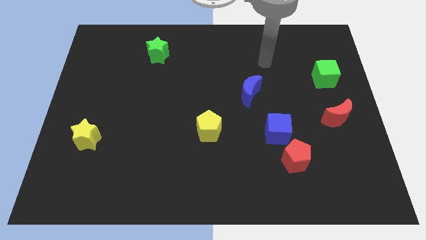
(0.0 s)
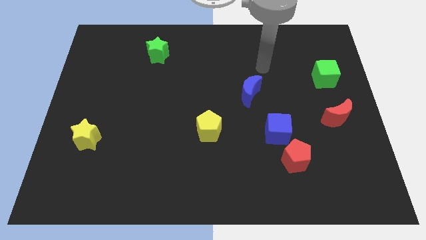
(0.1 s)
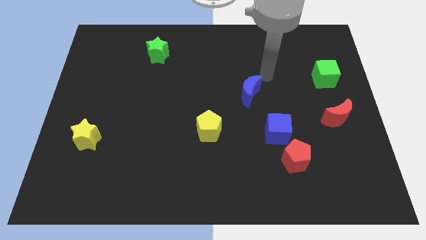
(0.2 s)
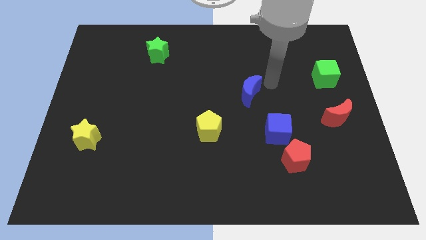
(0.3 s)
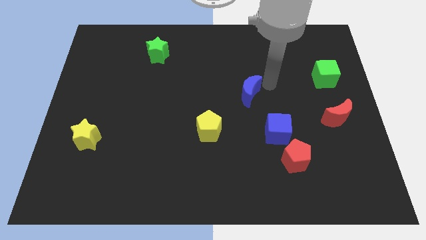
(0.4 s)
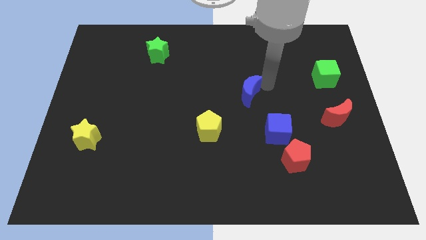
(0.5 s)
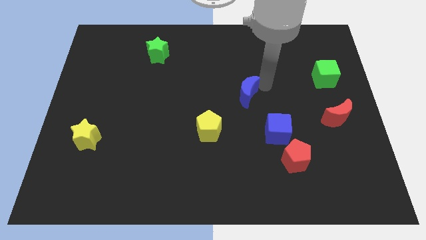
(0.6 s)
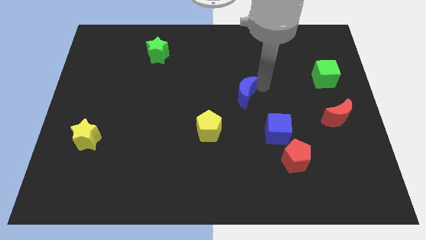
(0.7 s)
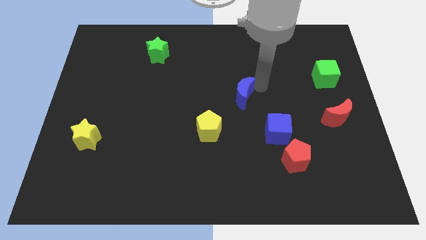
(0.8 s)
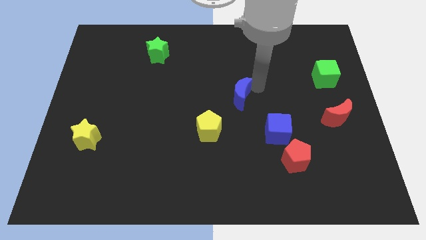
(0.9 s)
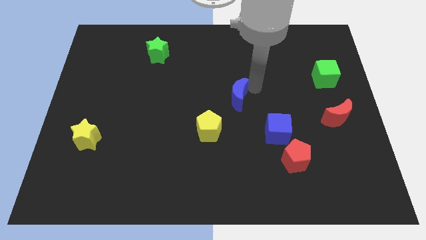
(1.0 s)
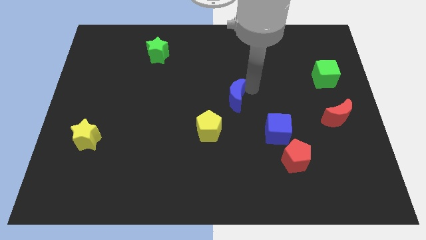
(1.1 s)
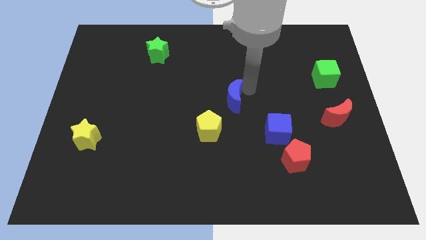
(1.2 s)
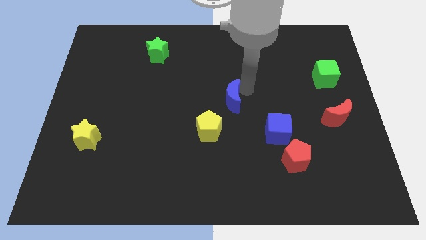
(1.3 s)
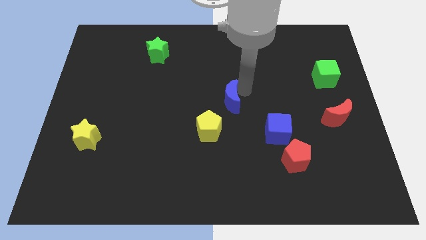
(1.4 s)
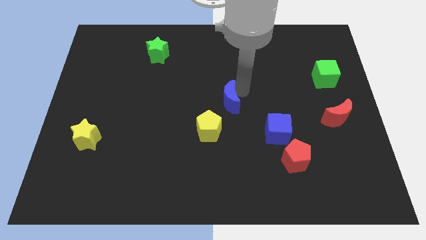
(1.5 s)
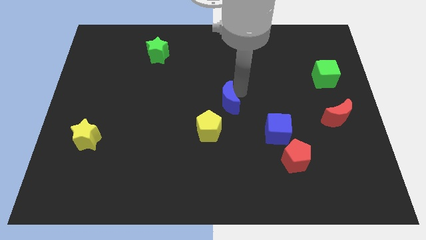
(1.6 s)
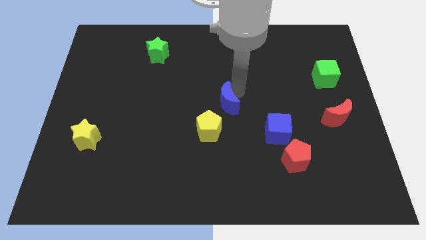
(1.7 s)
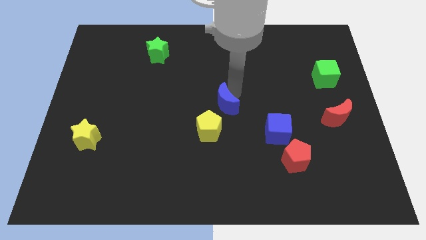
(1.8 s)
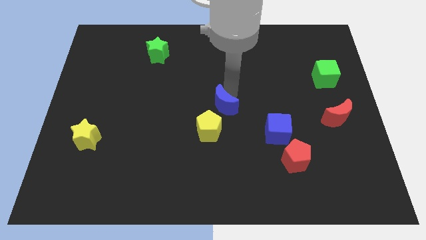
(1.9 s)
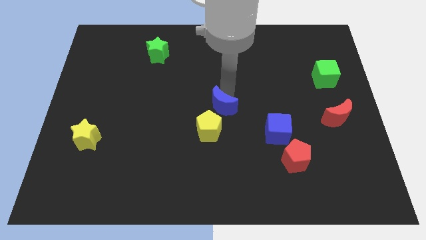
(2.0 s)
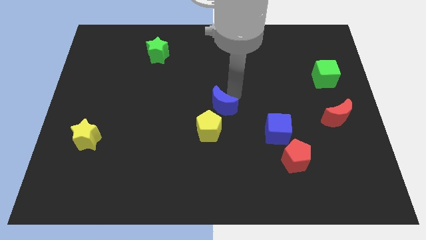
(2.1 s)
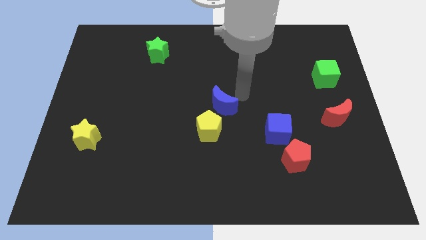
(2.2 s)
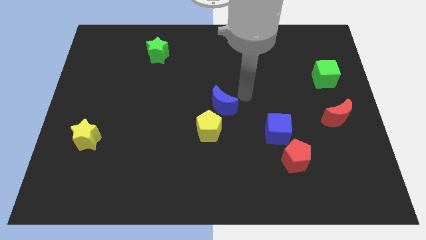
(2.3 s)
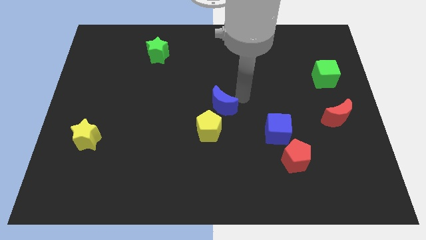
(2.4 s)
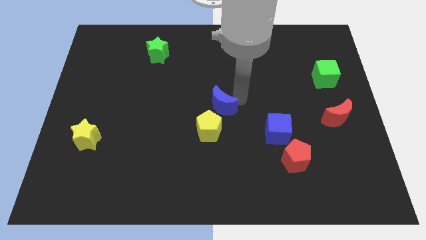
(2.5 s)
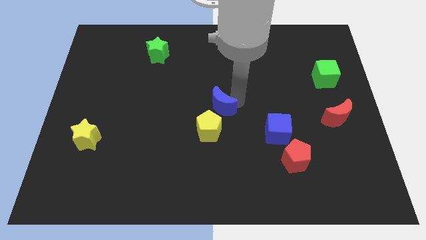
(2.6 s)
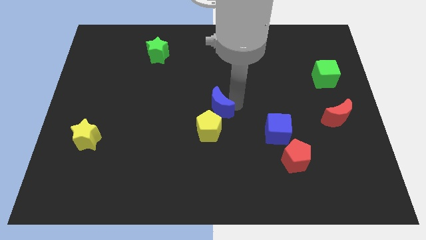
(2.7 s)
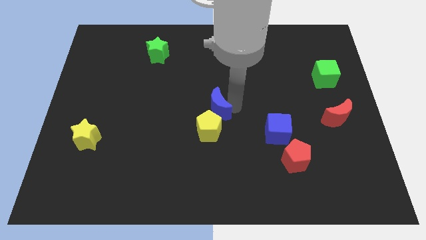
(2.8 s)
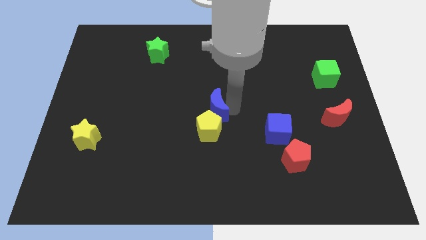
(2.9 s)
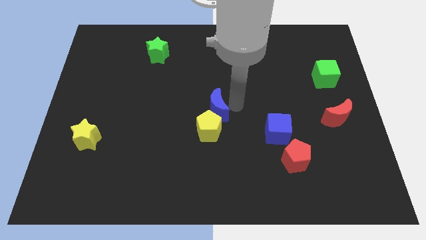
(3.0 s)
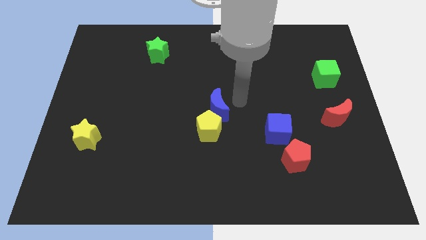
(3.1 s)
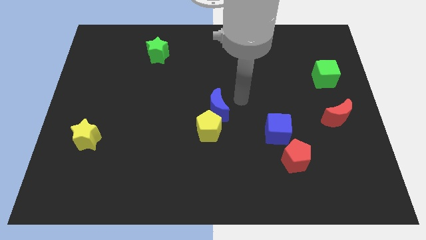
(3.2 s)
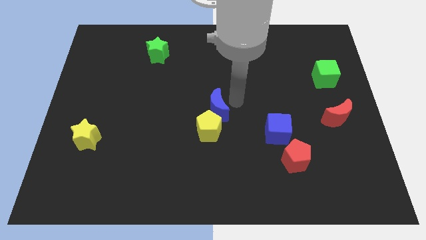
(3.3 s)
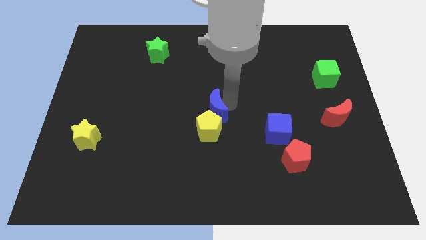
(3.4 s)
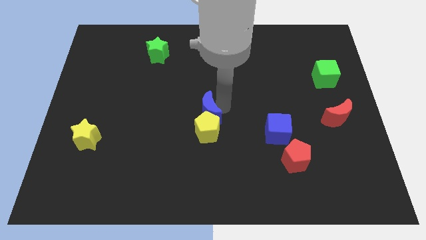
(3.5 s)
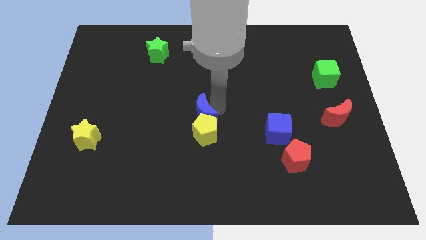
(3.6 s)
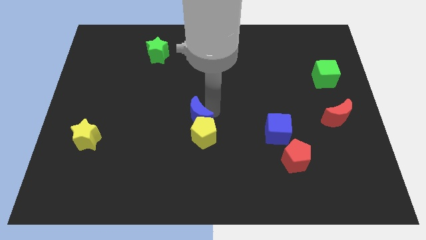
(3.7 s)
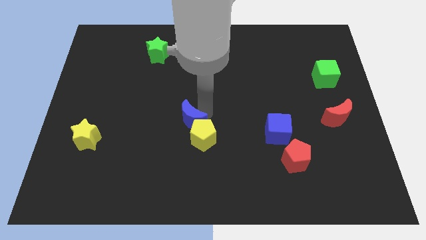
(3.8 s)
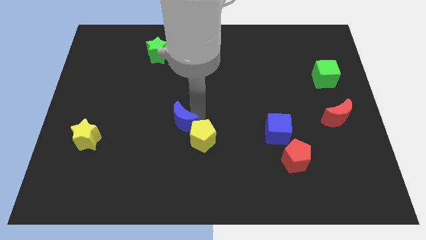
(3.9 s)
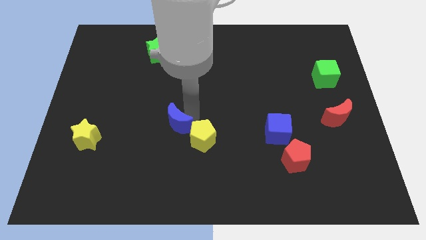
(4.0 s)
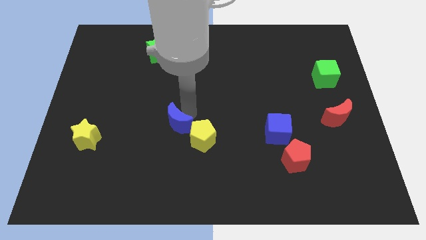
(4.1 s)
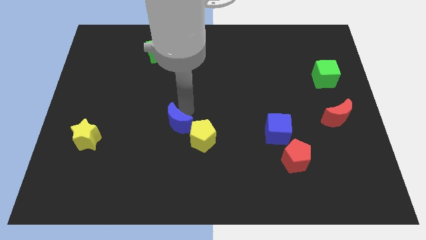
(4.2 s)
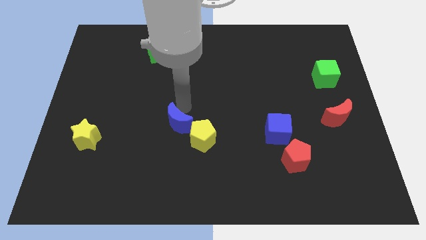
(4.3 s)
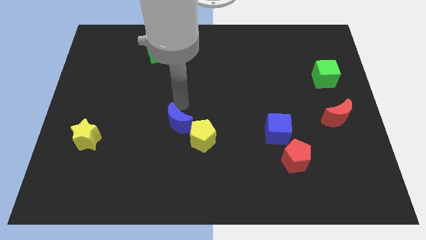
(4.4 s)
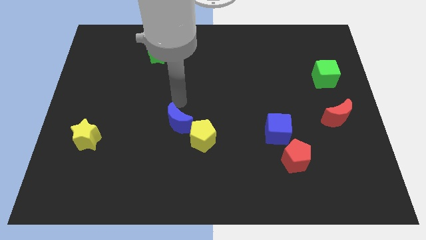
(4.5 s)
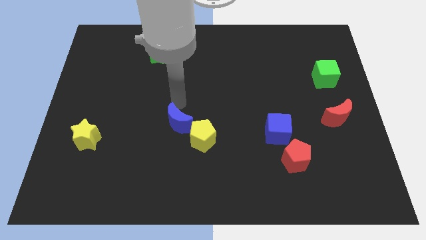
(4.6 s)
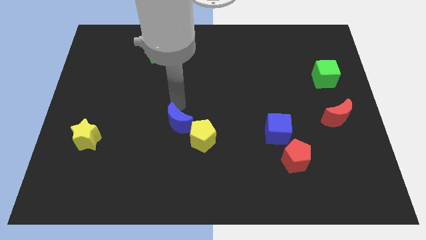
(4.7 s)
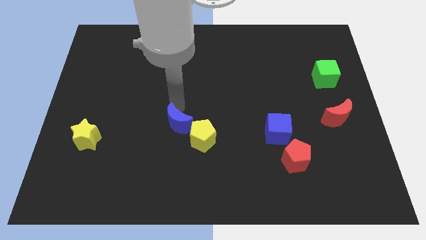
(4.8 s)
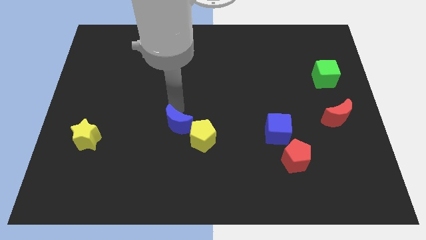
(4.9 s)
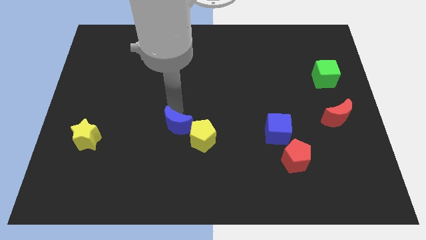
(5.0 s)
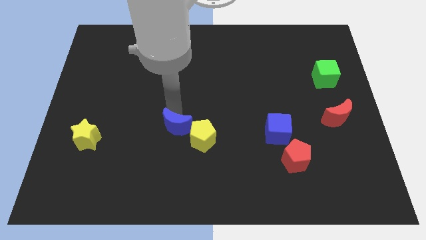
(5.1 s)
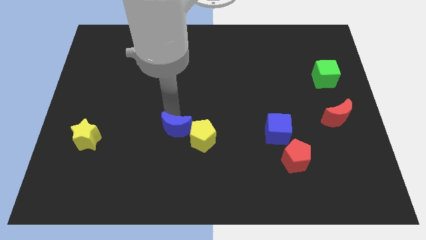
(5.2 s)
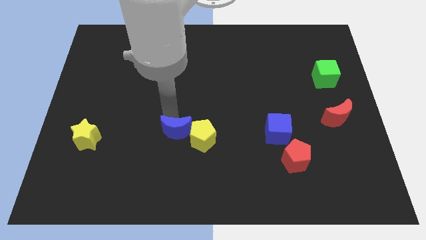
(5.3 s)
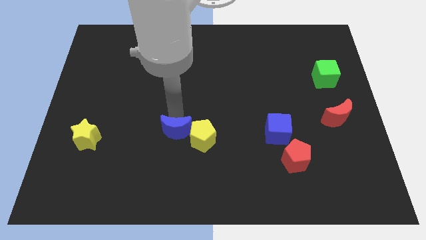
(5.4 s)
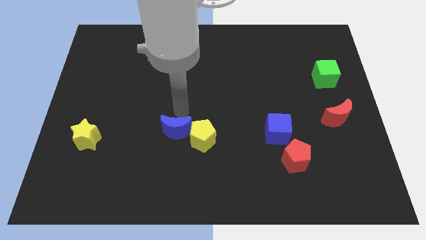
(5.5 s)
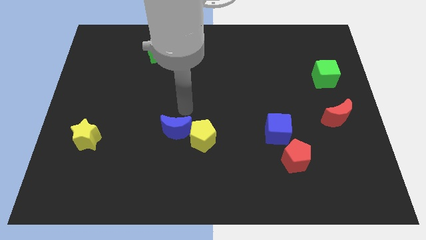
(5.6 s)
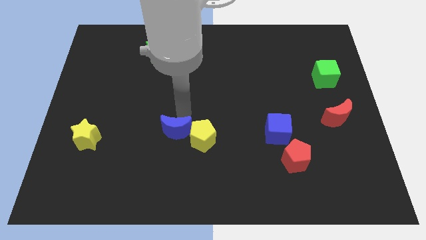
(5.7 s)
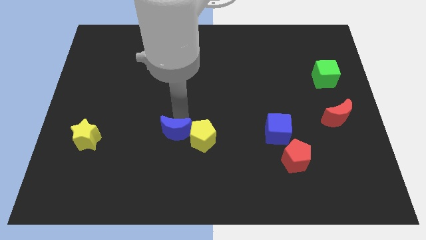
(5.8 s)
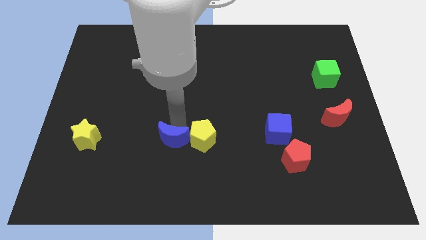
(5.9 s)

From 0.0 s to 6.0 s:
slide the blue moon downwards and left diagonally

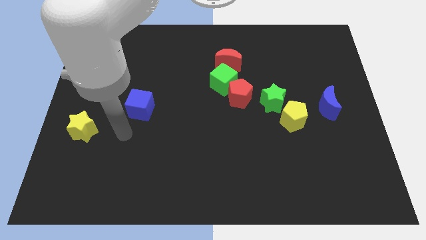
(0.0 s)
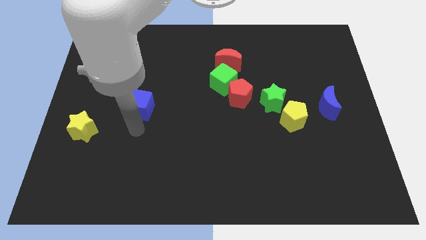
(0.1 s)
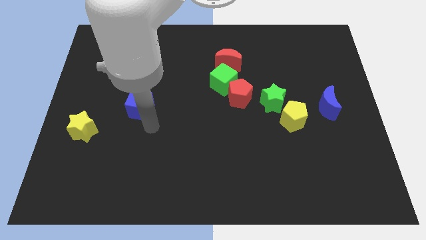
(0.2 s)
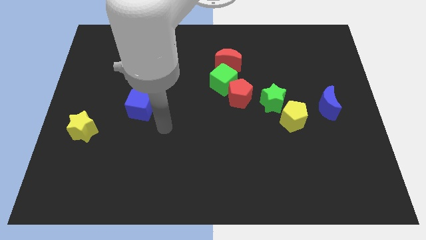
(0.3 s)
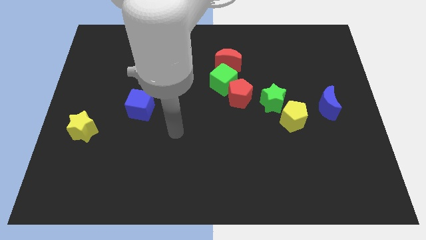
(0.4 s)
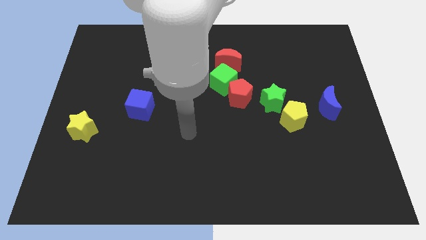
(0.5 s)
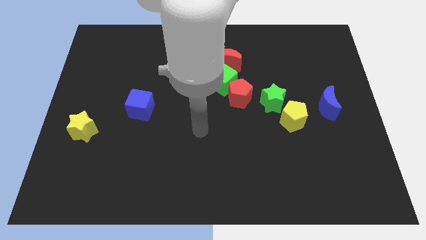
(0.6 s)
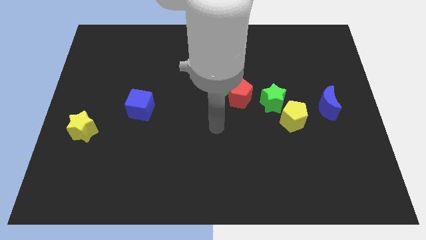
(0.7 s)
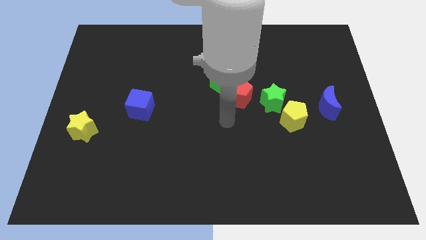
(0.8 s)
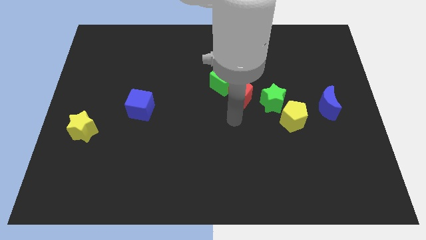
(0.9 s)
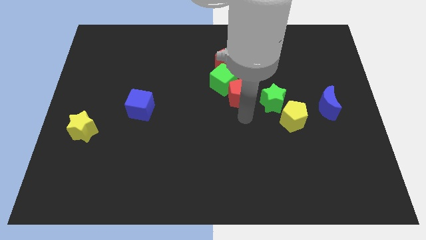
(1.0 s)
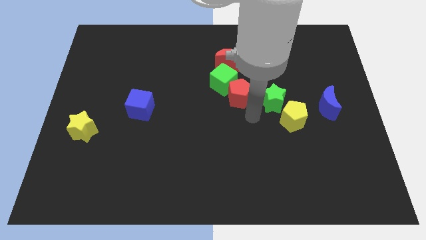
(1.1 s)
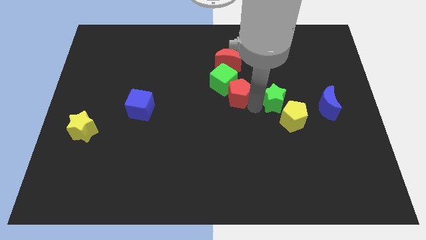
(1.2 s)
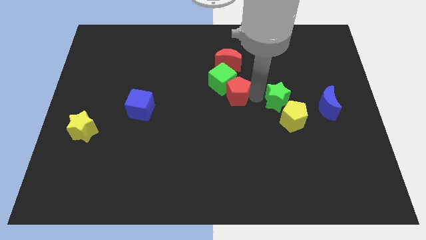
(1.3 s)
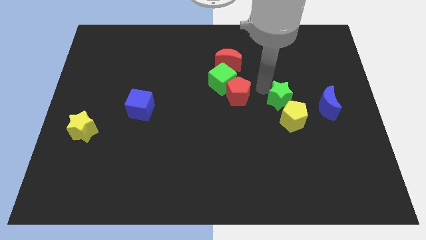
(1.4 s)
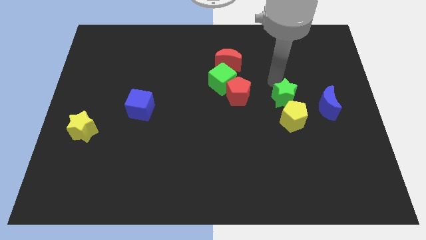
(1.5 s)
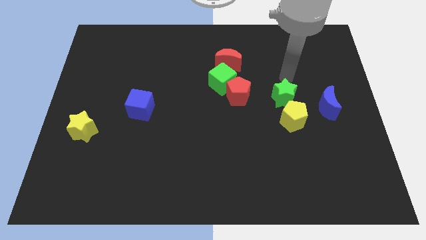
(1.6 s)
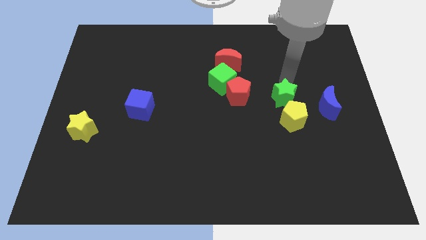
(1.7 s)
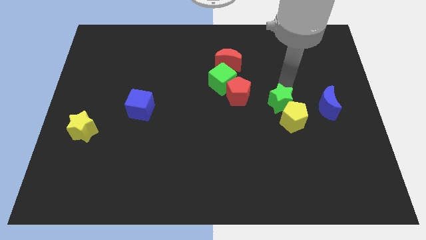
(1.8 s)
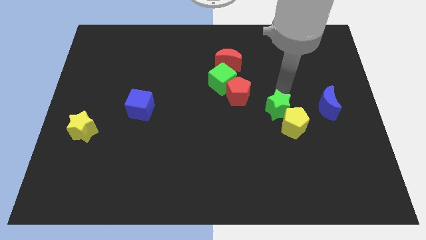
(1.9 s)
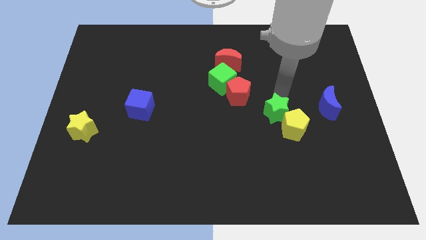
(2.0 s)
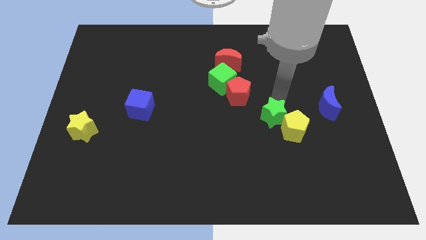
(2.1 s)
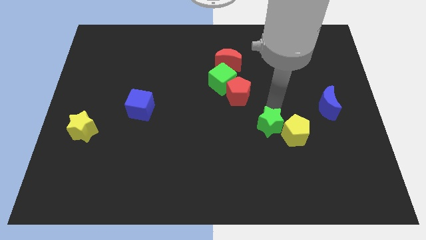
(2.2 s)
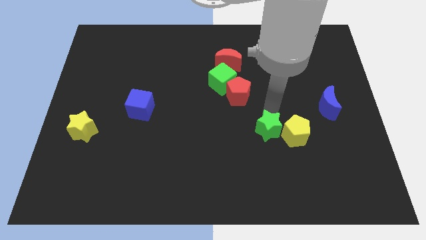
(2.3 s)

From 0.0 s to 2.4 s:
slide the green star a little bit downwards
